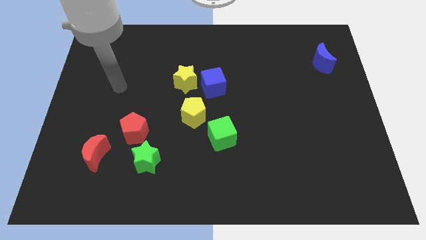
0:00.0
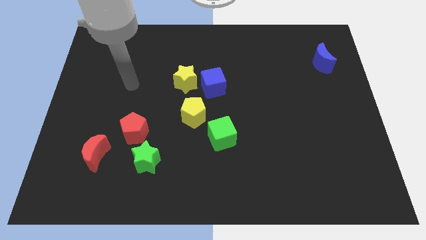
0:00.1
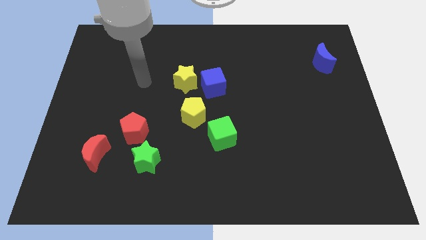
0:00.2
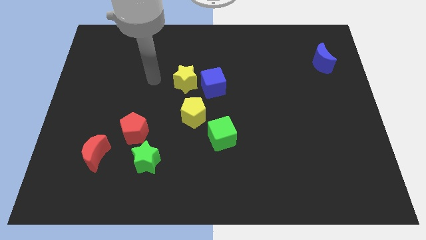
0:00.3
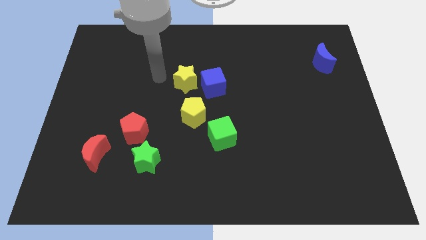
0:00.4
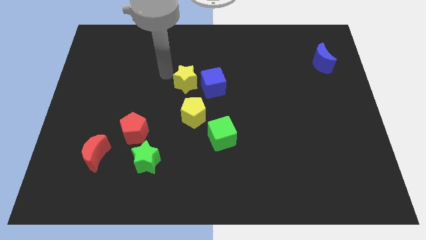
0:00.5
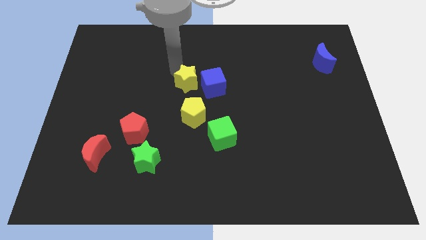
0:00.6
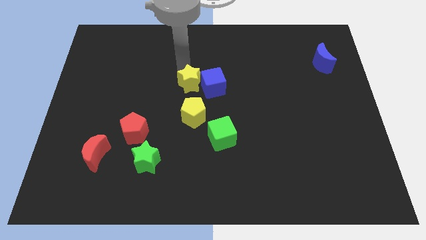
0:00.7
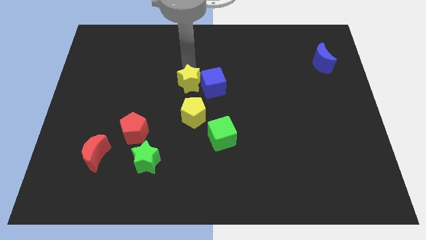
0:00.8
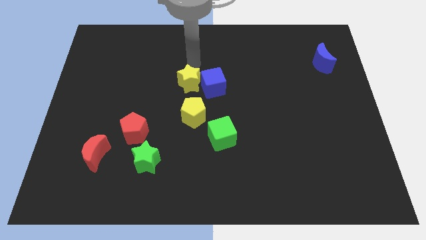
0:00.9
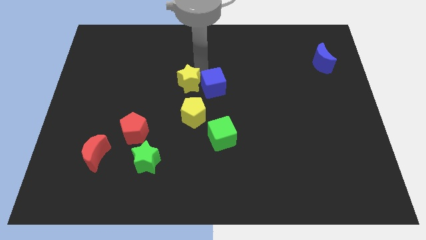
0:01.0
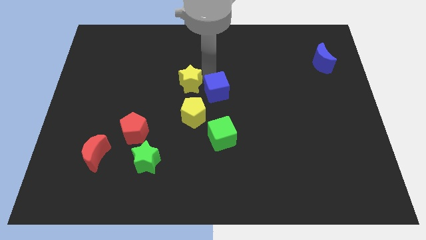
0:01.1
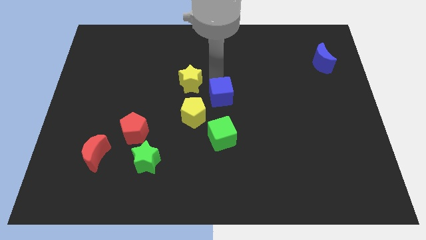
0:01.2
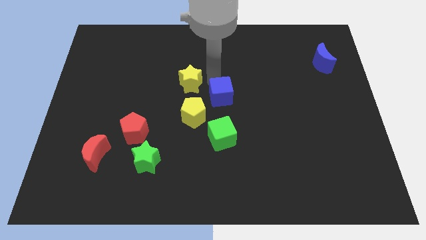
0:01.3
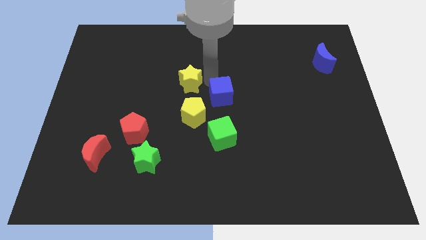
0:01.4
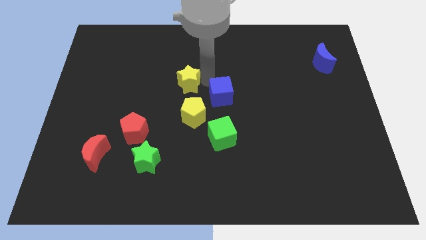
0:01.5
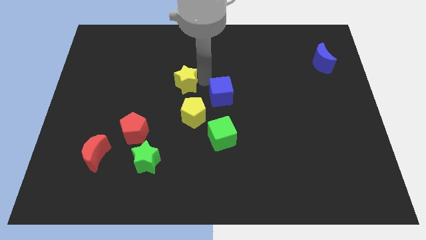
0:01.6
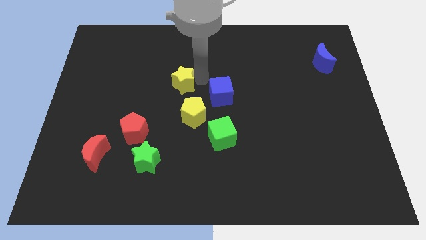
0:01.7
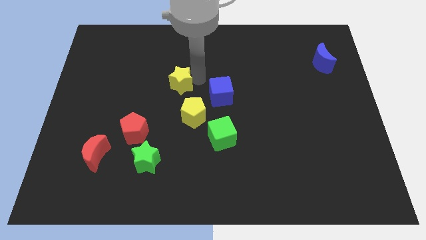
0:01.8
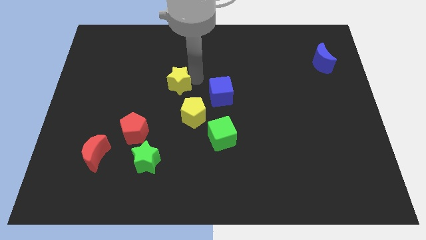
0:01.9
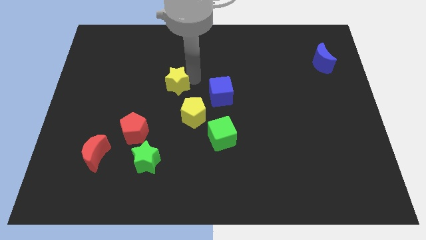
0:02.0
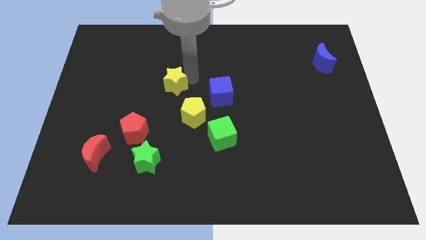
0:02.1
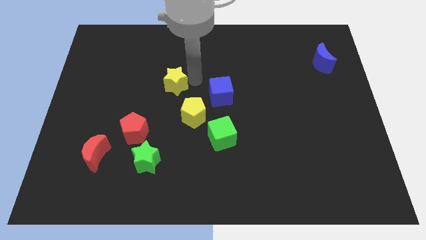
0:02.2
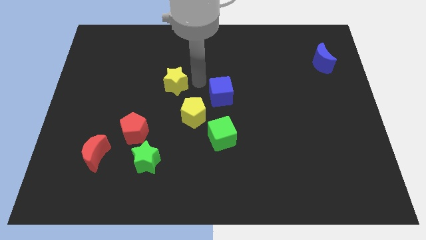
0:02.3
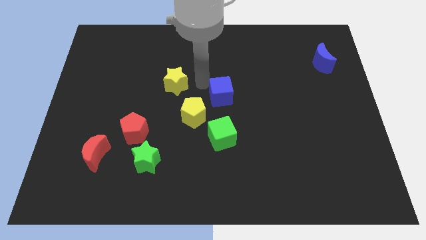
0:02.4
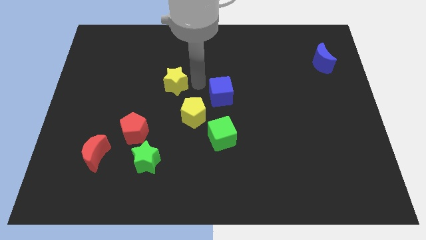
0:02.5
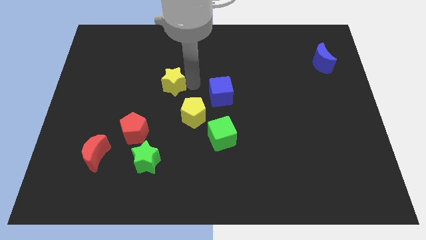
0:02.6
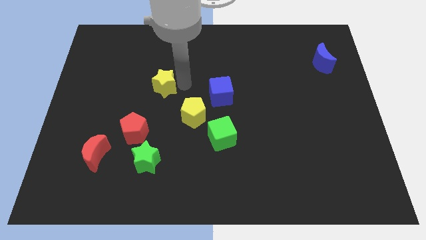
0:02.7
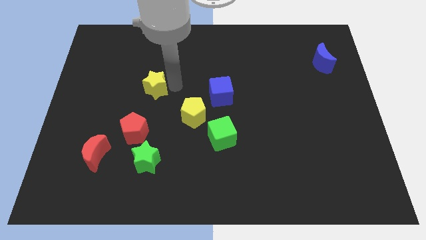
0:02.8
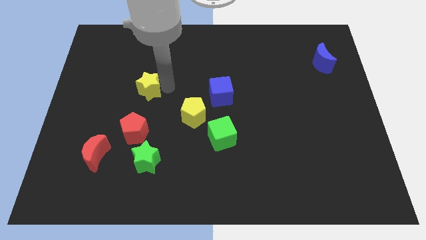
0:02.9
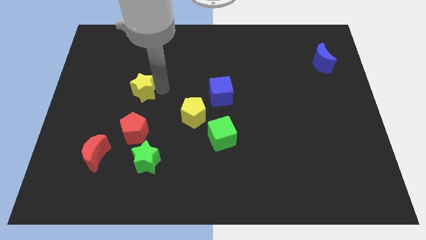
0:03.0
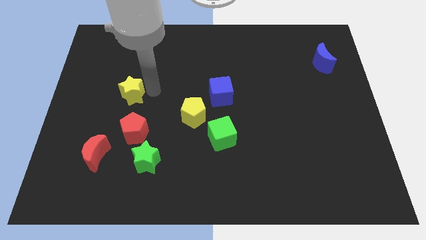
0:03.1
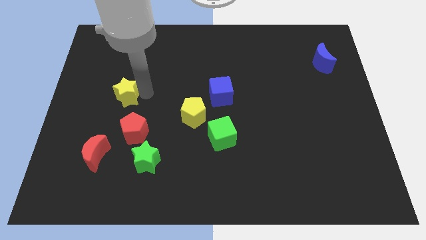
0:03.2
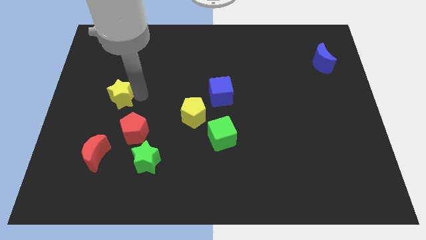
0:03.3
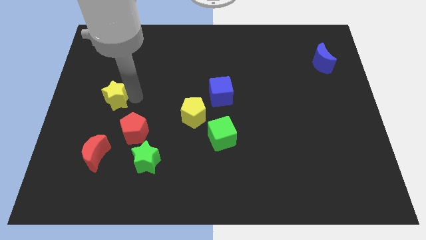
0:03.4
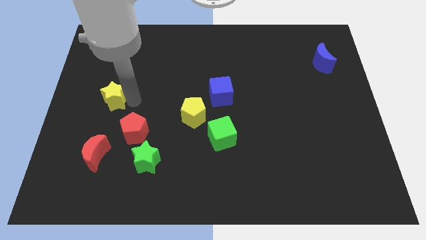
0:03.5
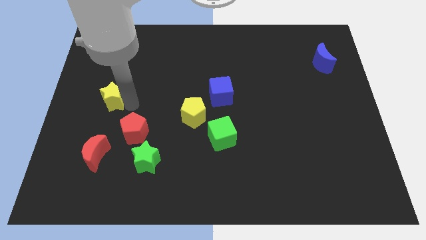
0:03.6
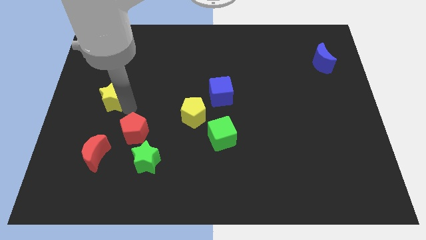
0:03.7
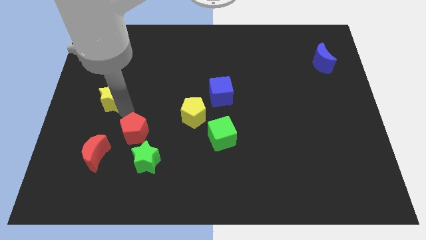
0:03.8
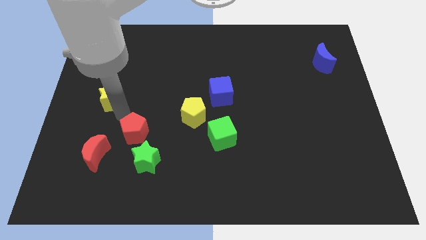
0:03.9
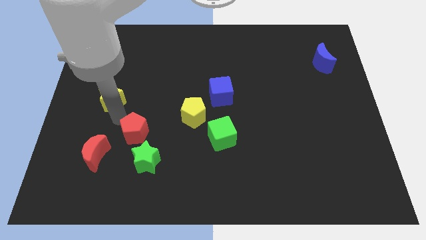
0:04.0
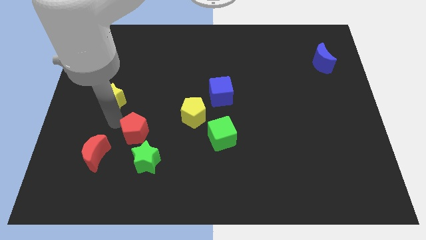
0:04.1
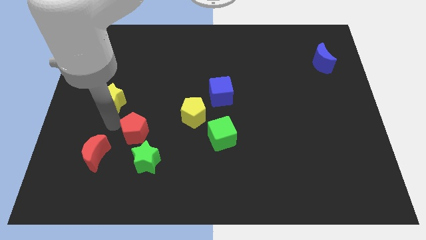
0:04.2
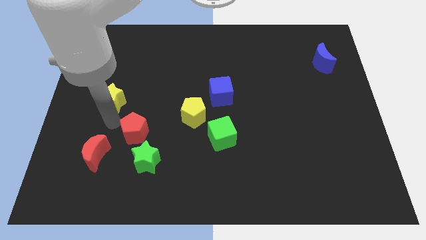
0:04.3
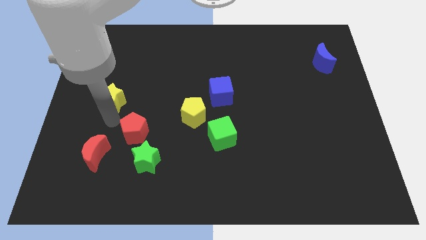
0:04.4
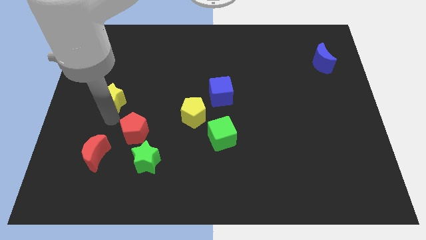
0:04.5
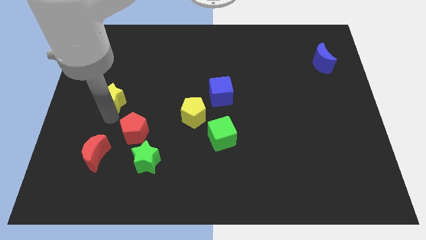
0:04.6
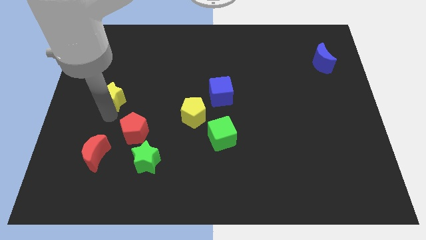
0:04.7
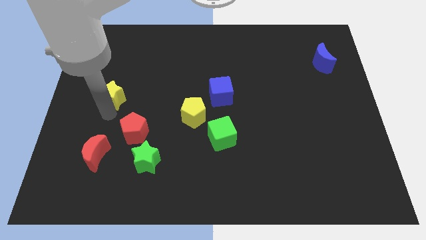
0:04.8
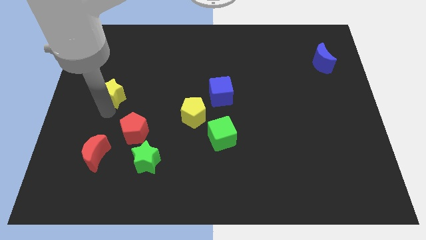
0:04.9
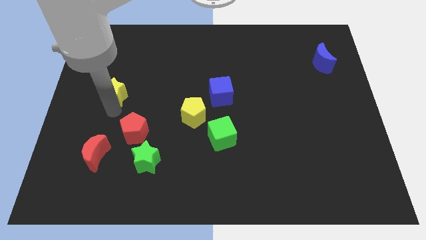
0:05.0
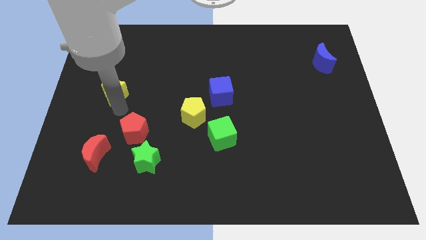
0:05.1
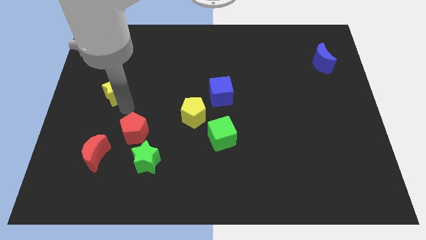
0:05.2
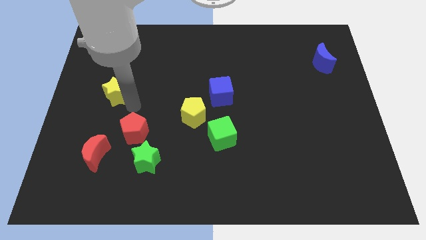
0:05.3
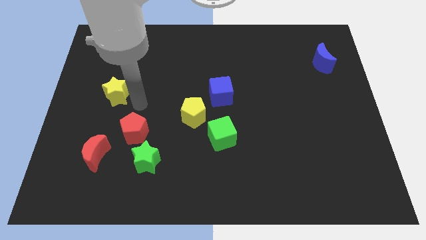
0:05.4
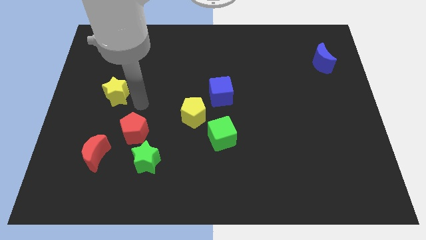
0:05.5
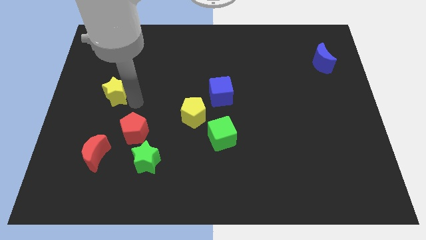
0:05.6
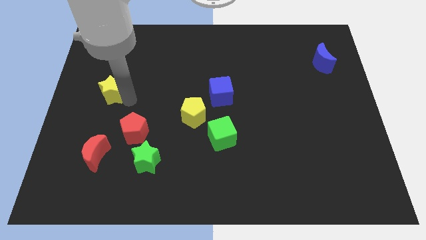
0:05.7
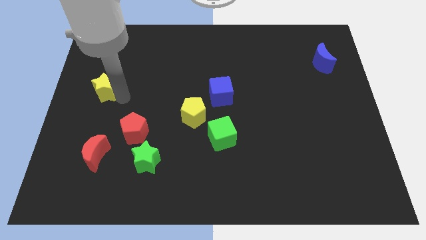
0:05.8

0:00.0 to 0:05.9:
push the yellow star to the center left
